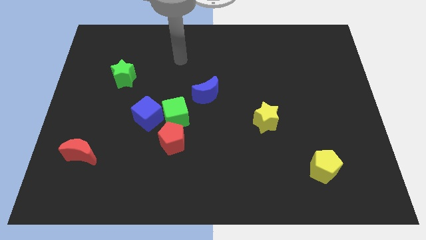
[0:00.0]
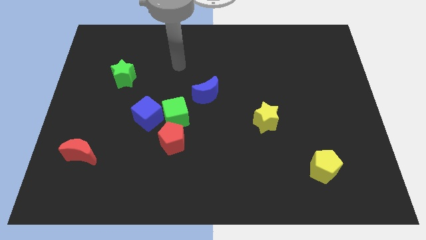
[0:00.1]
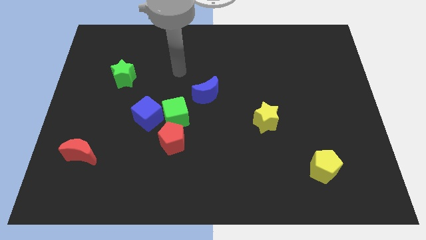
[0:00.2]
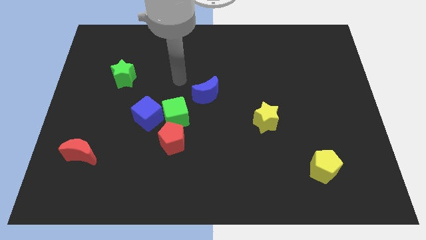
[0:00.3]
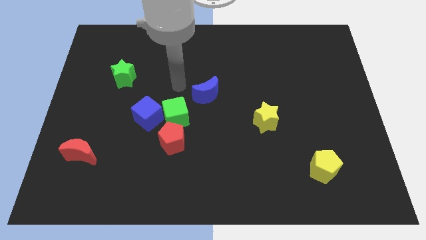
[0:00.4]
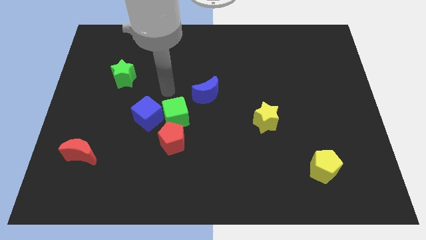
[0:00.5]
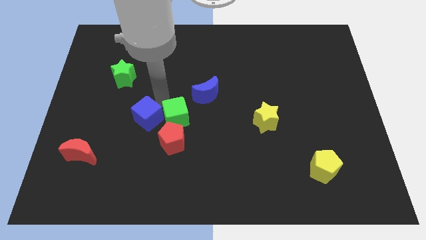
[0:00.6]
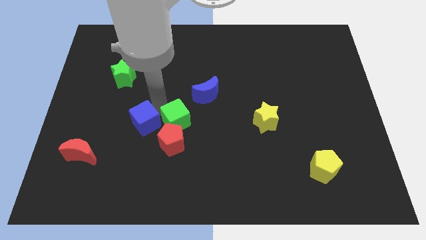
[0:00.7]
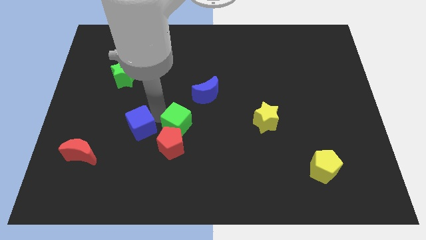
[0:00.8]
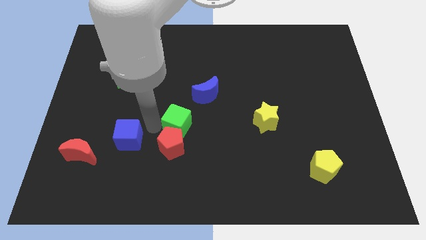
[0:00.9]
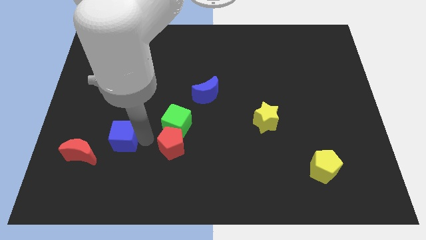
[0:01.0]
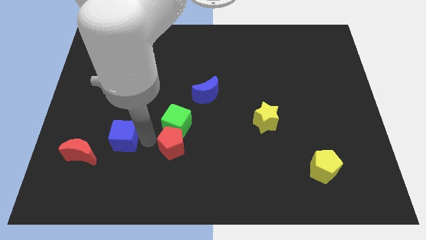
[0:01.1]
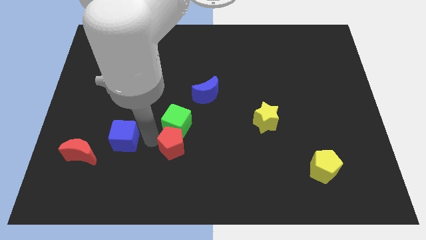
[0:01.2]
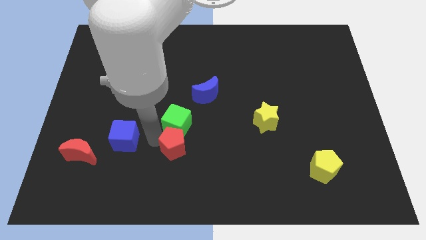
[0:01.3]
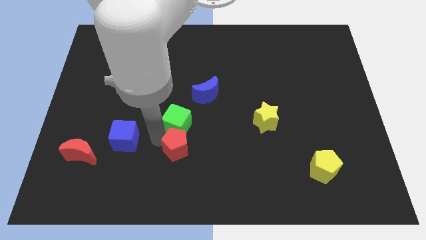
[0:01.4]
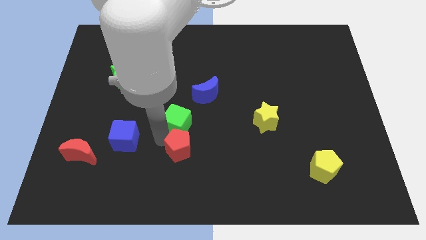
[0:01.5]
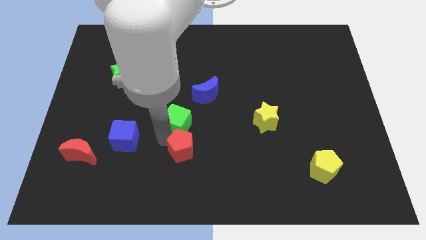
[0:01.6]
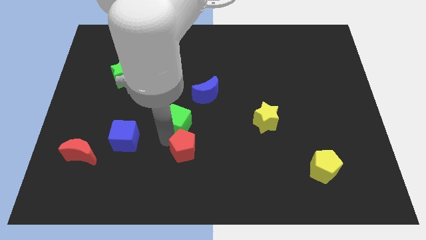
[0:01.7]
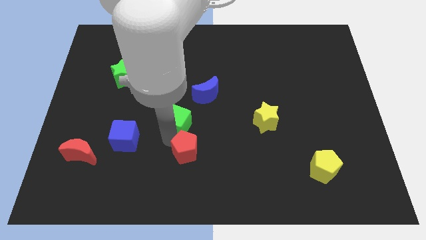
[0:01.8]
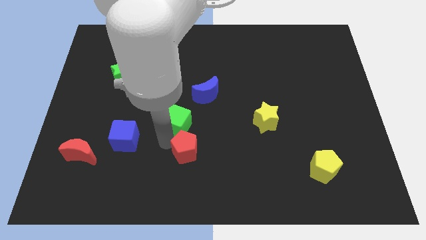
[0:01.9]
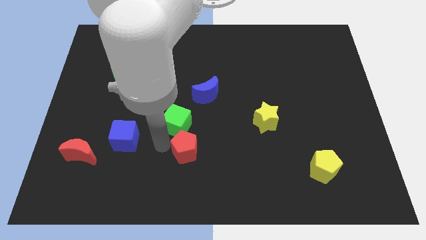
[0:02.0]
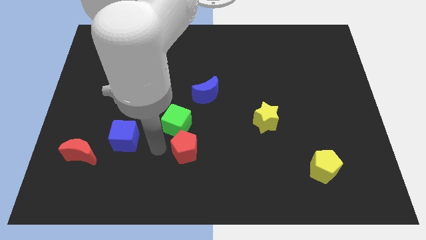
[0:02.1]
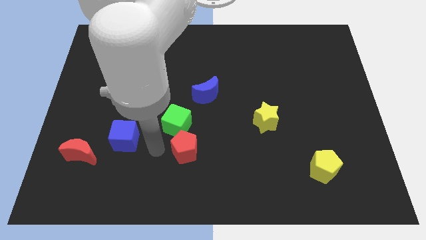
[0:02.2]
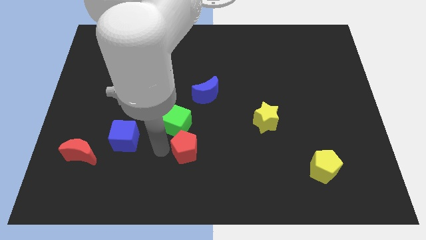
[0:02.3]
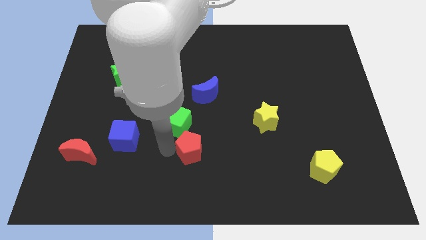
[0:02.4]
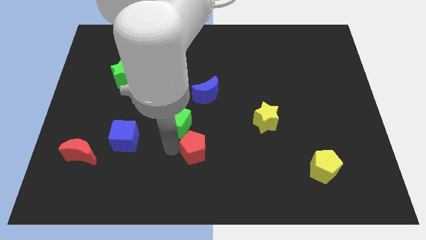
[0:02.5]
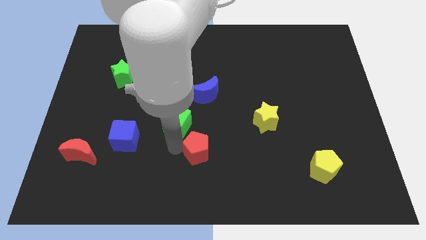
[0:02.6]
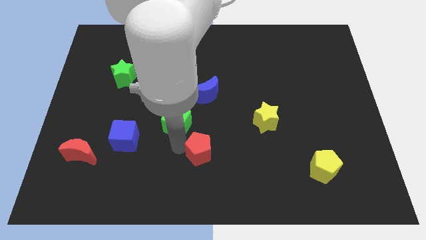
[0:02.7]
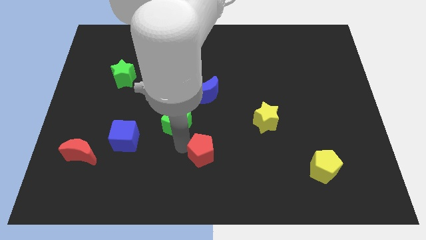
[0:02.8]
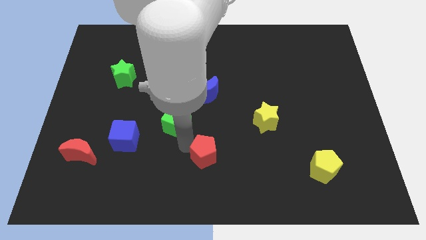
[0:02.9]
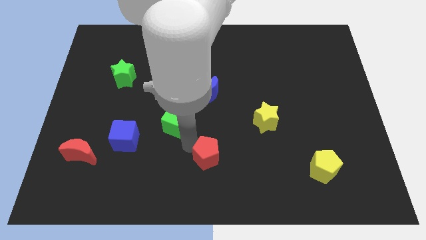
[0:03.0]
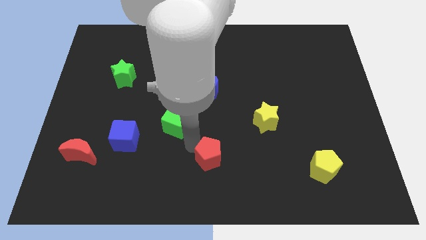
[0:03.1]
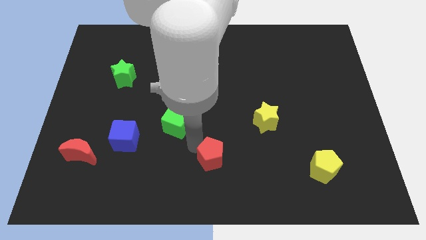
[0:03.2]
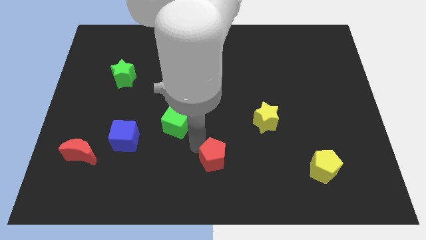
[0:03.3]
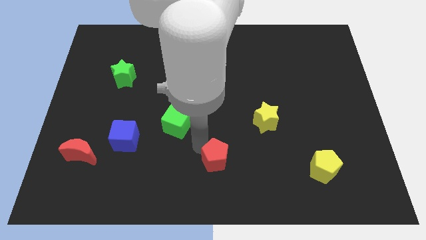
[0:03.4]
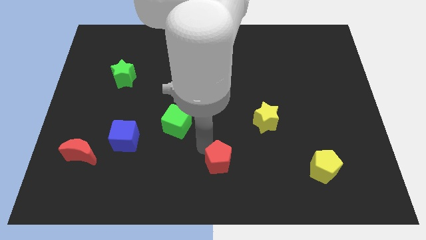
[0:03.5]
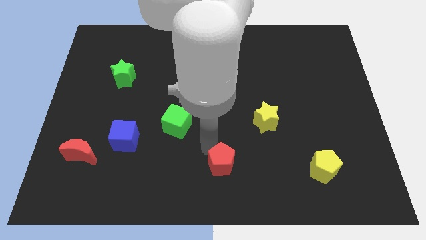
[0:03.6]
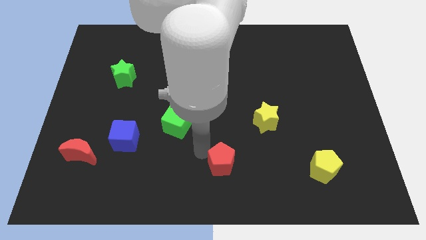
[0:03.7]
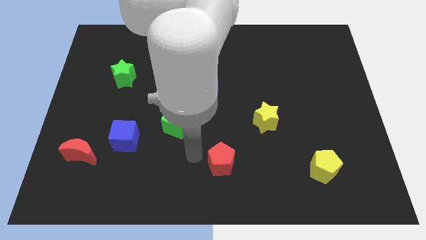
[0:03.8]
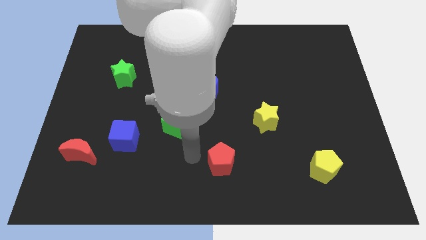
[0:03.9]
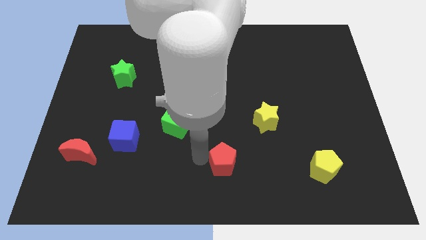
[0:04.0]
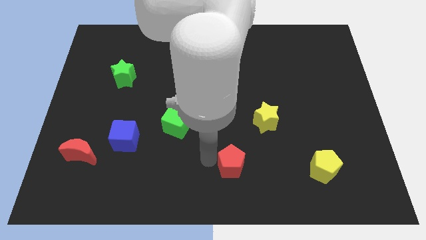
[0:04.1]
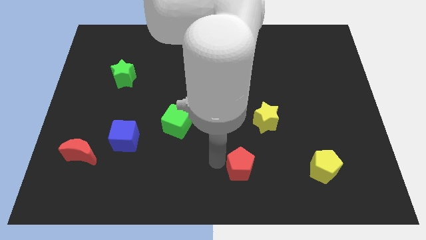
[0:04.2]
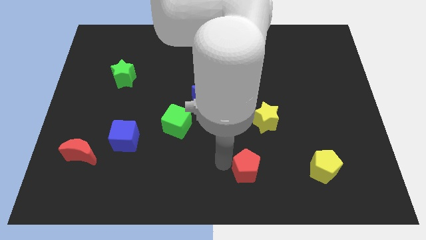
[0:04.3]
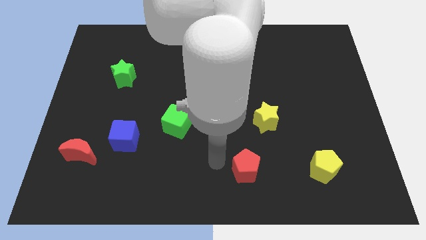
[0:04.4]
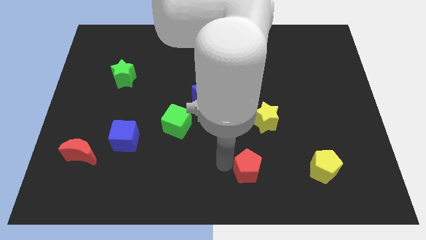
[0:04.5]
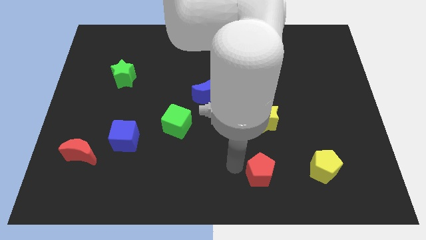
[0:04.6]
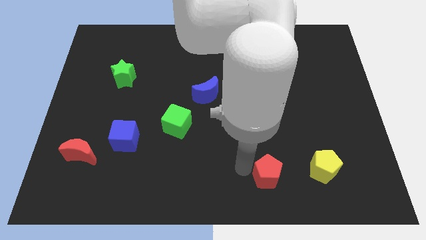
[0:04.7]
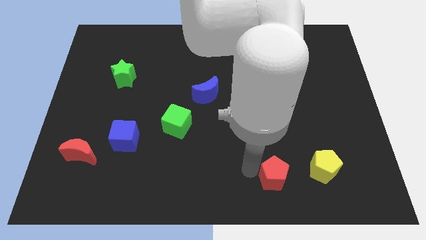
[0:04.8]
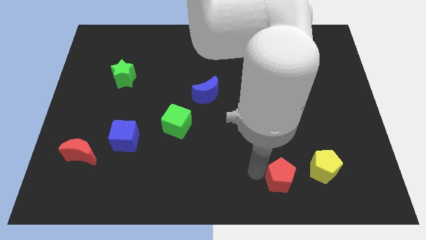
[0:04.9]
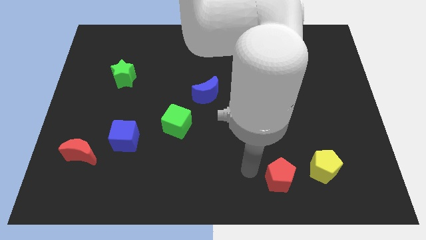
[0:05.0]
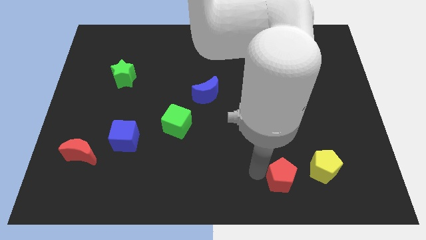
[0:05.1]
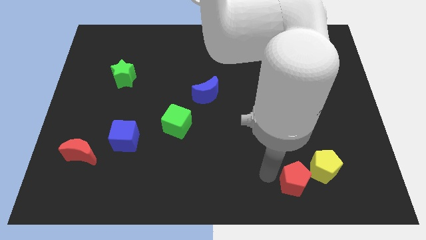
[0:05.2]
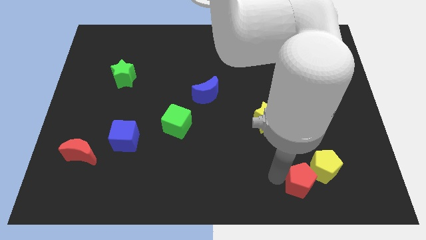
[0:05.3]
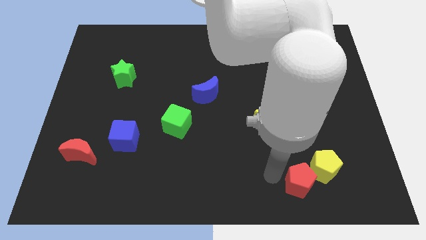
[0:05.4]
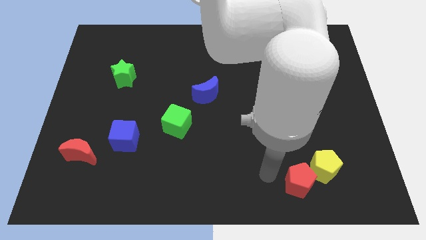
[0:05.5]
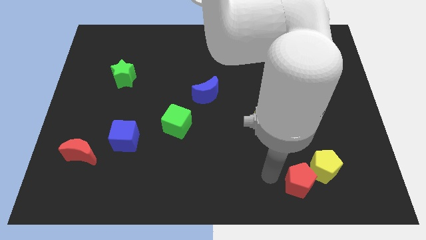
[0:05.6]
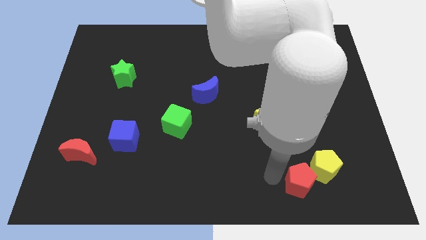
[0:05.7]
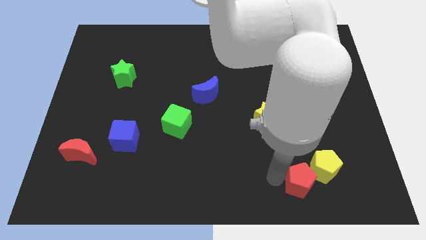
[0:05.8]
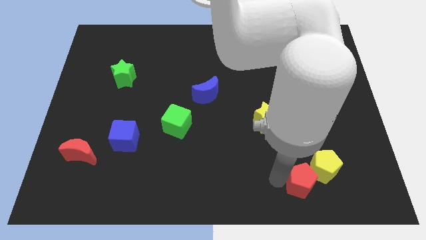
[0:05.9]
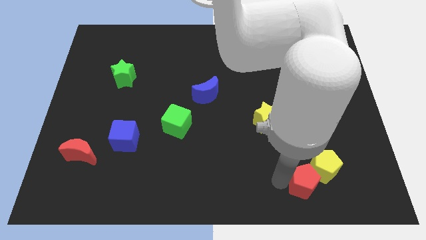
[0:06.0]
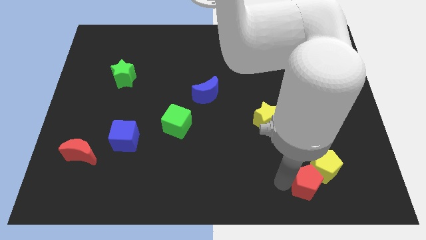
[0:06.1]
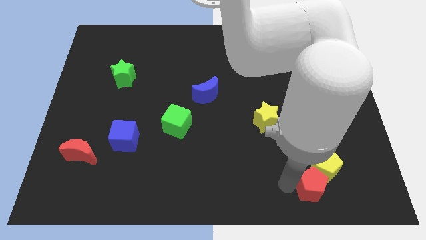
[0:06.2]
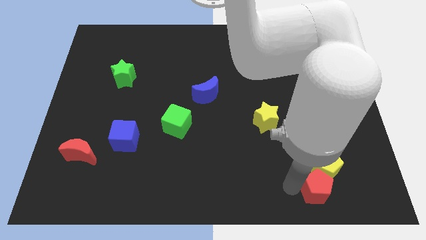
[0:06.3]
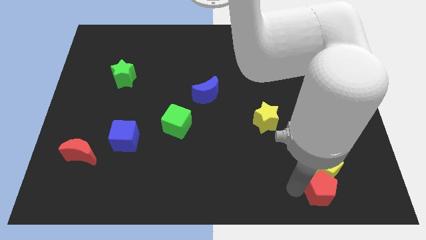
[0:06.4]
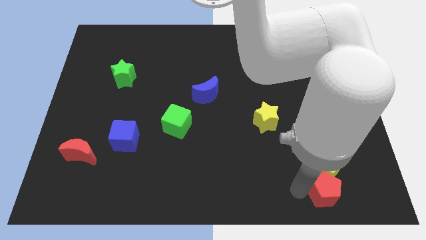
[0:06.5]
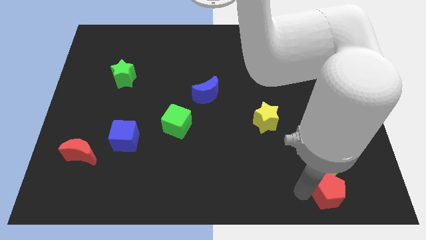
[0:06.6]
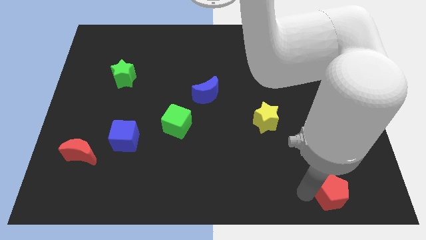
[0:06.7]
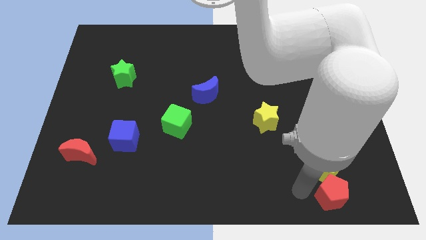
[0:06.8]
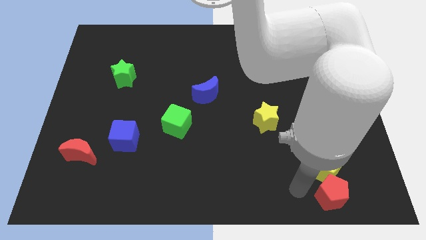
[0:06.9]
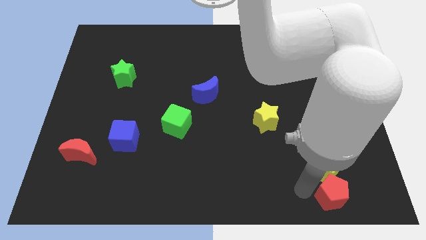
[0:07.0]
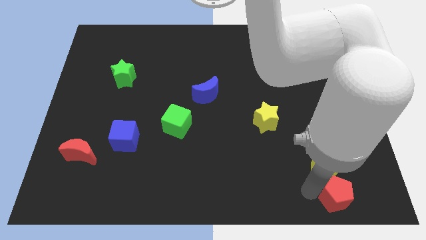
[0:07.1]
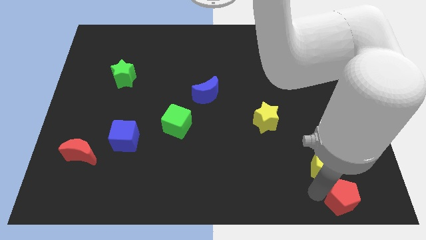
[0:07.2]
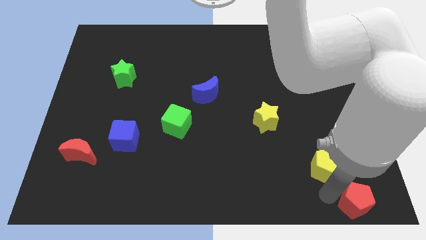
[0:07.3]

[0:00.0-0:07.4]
push the red pentagon to the lower right corner
